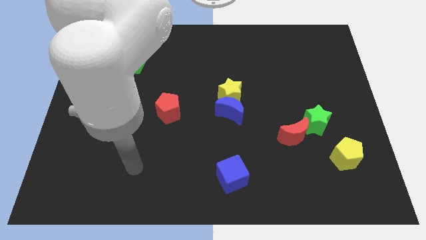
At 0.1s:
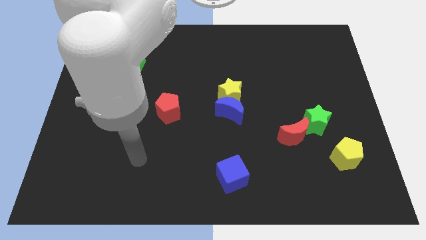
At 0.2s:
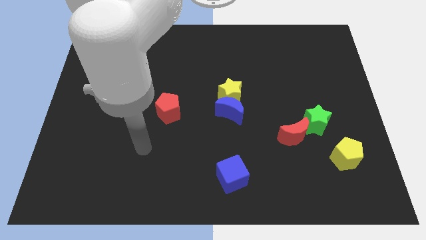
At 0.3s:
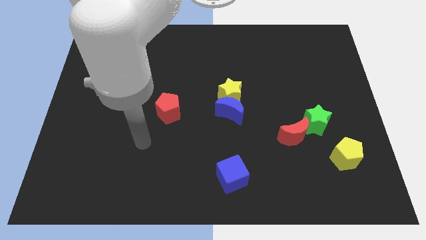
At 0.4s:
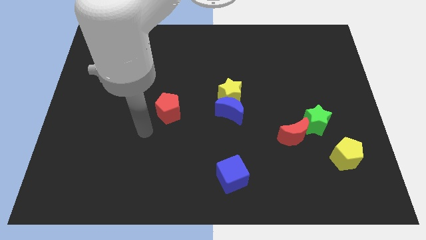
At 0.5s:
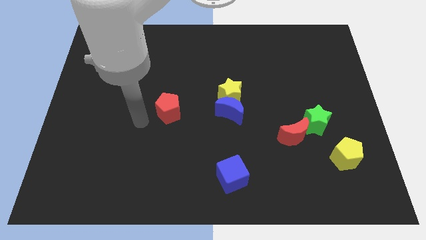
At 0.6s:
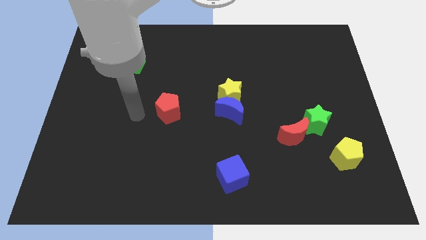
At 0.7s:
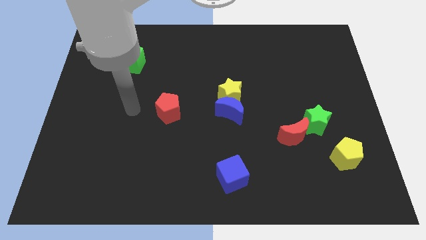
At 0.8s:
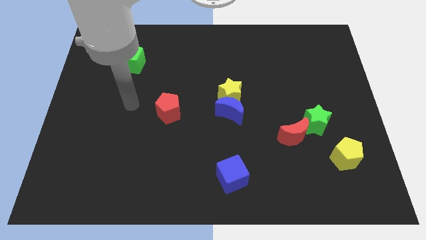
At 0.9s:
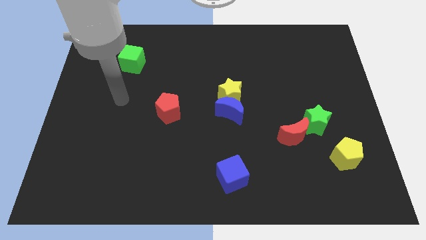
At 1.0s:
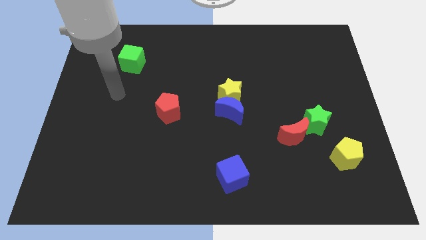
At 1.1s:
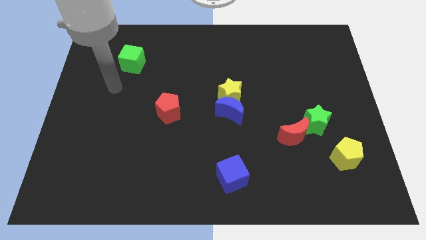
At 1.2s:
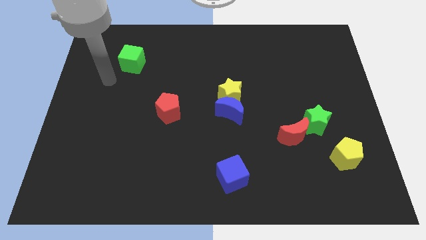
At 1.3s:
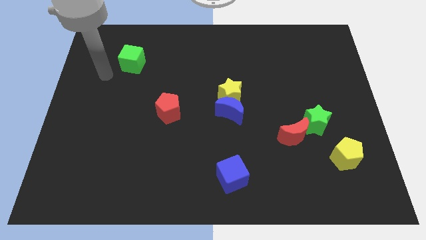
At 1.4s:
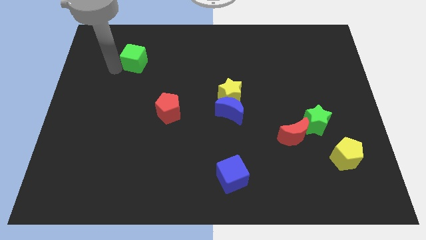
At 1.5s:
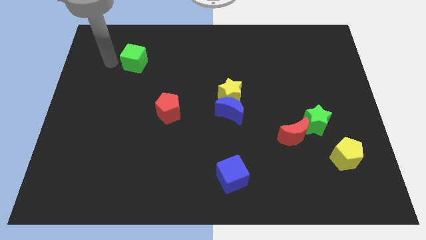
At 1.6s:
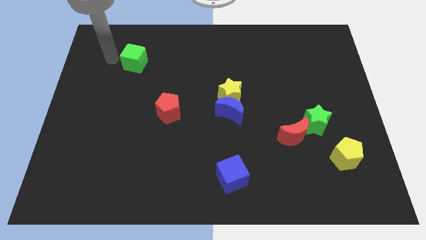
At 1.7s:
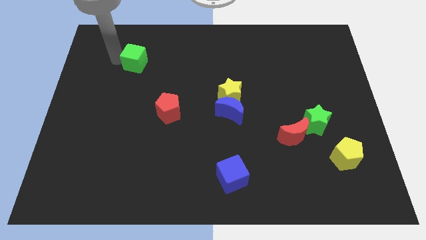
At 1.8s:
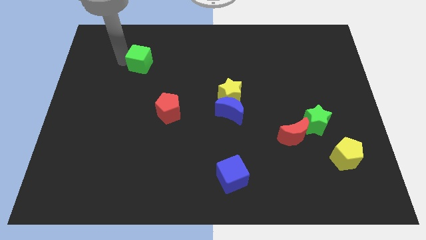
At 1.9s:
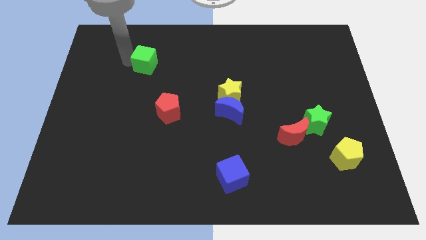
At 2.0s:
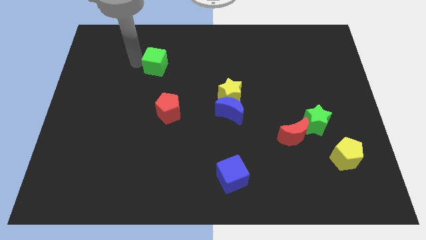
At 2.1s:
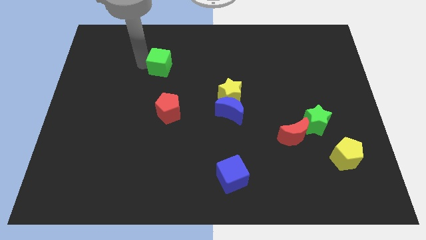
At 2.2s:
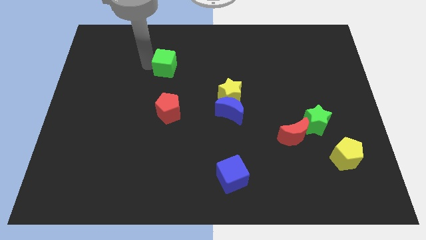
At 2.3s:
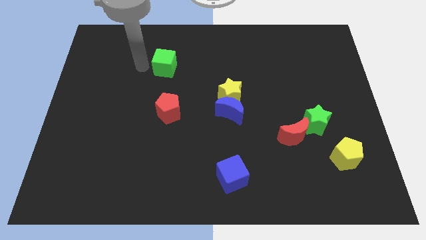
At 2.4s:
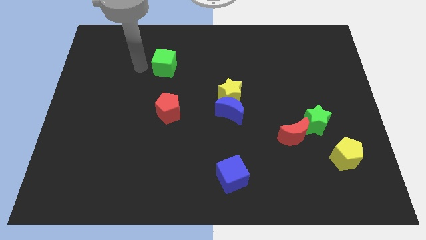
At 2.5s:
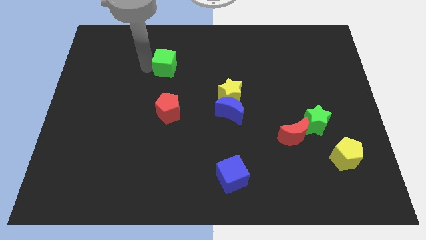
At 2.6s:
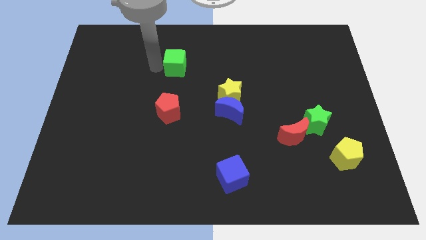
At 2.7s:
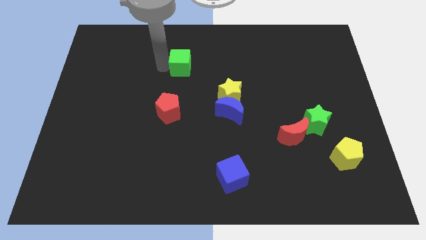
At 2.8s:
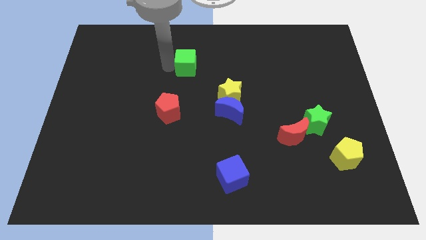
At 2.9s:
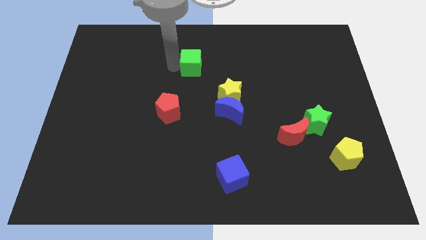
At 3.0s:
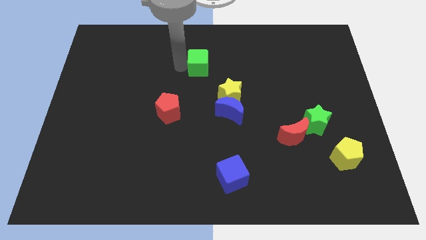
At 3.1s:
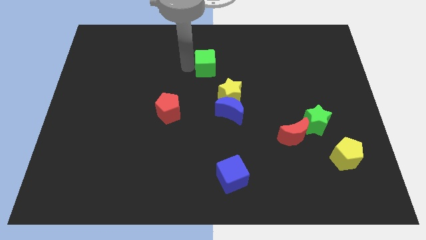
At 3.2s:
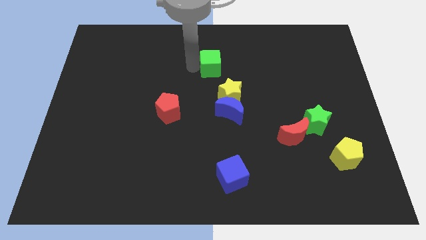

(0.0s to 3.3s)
slide the green cube right

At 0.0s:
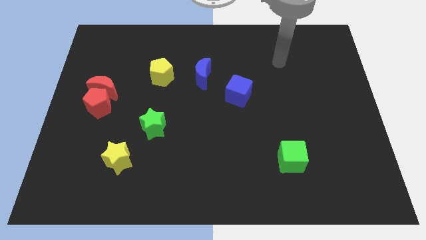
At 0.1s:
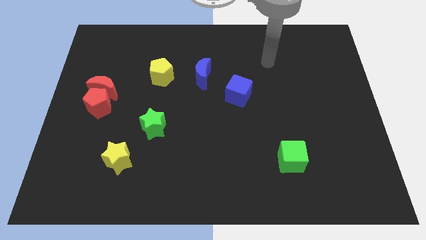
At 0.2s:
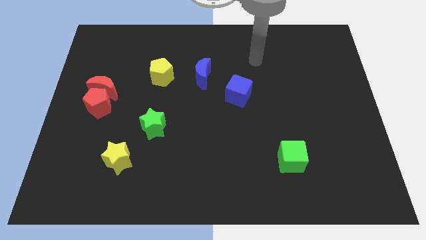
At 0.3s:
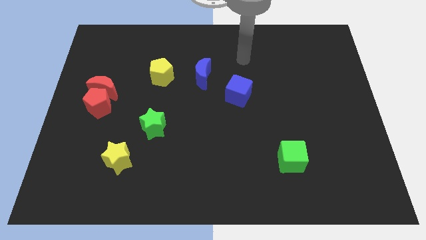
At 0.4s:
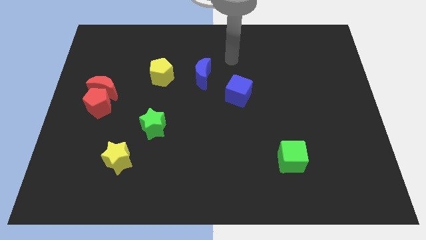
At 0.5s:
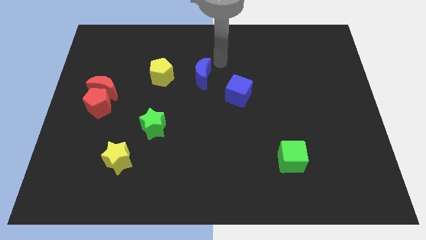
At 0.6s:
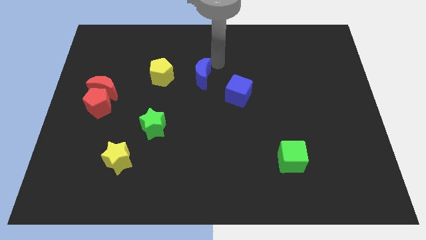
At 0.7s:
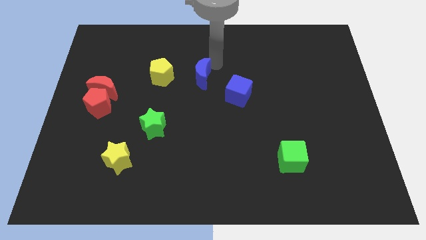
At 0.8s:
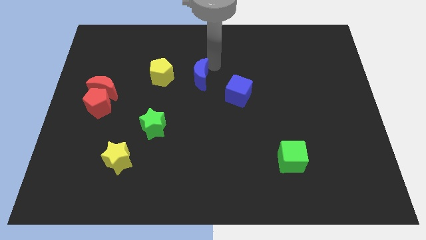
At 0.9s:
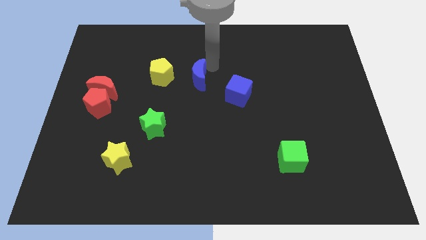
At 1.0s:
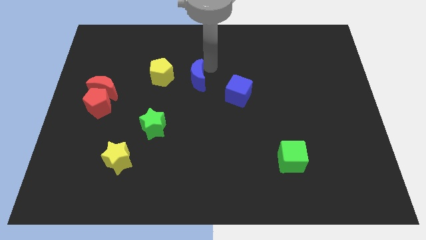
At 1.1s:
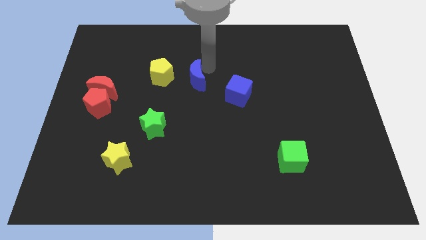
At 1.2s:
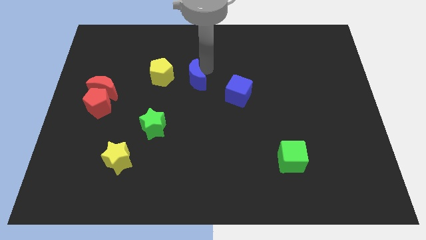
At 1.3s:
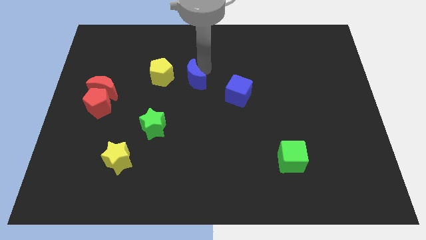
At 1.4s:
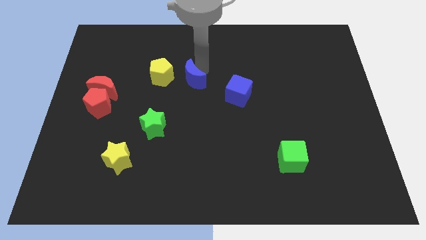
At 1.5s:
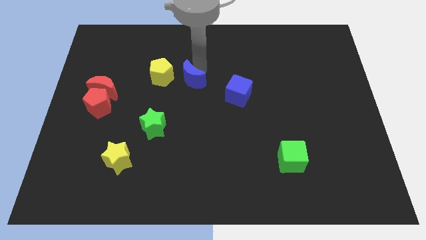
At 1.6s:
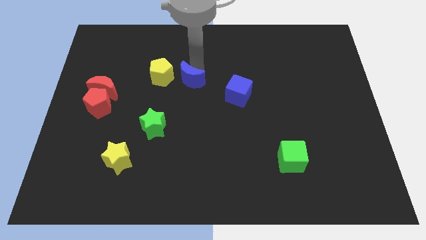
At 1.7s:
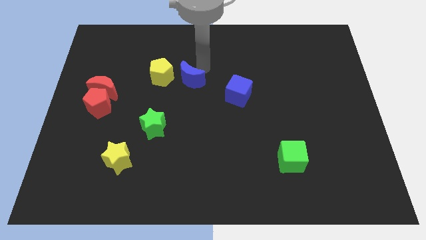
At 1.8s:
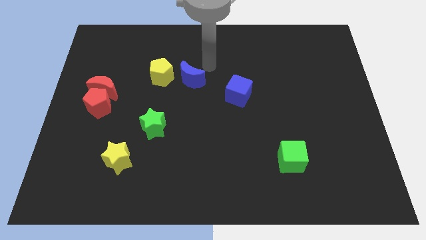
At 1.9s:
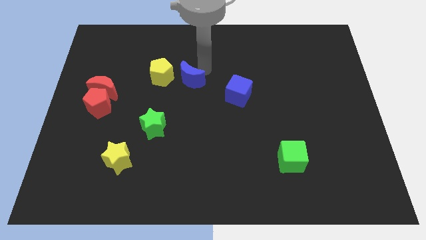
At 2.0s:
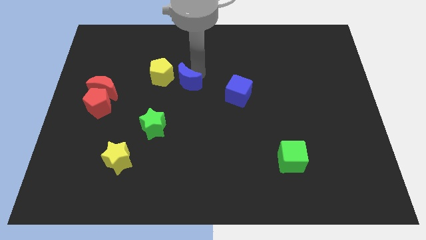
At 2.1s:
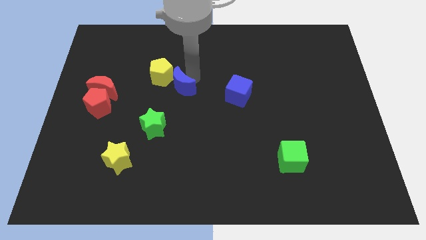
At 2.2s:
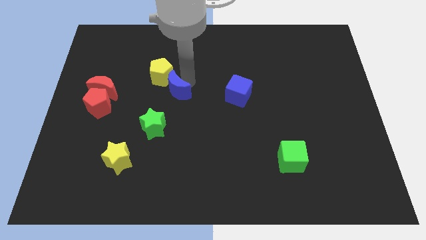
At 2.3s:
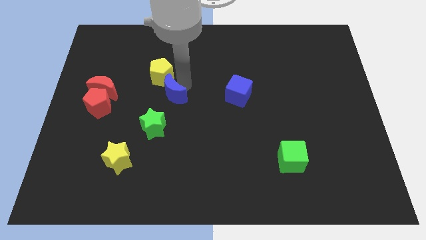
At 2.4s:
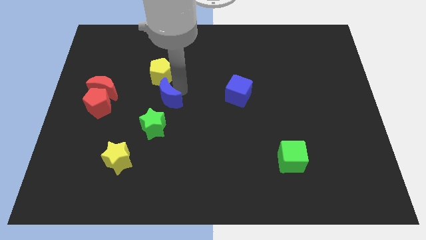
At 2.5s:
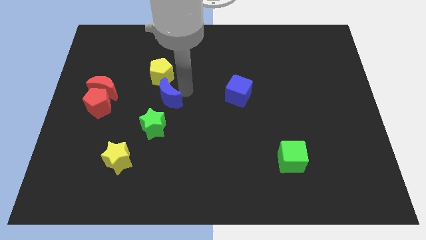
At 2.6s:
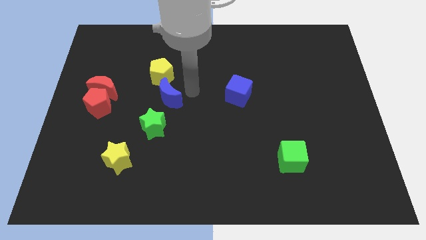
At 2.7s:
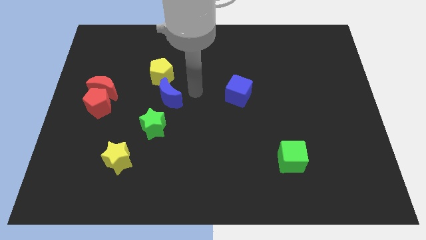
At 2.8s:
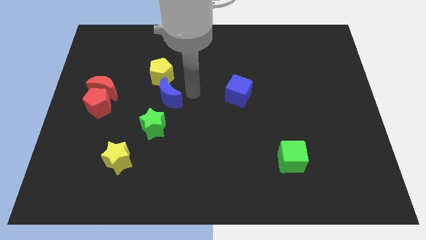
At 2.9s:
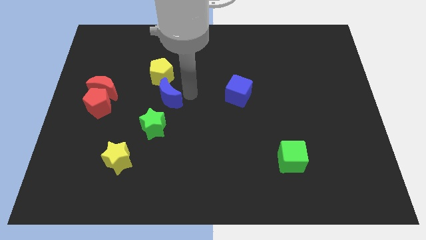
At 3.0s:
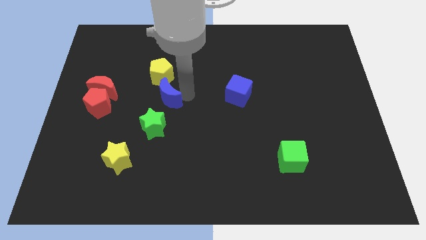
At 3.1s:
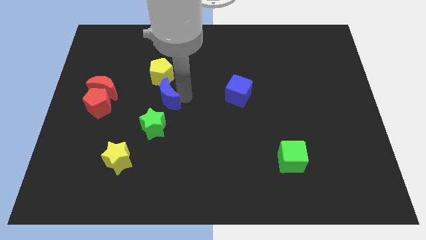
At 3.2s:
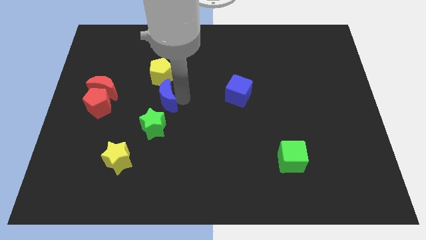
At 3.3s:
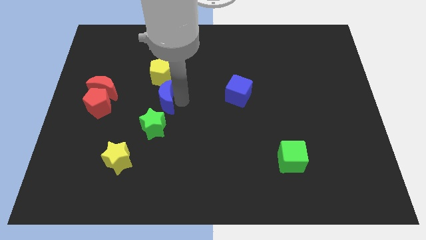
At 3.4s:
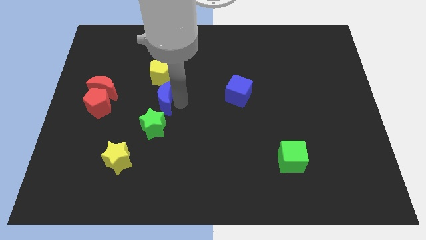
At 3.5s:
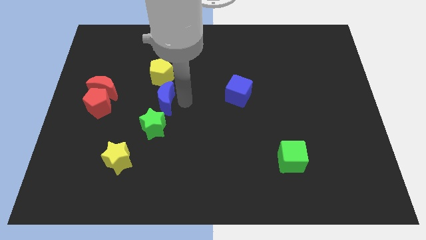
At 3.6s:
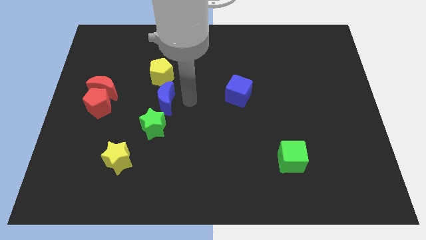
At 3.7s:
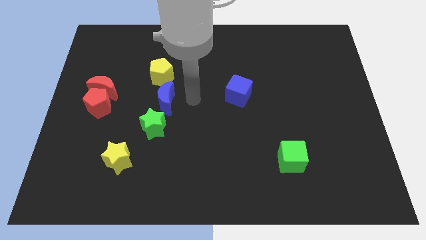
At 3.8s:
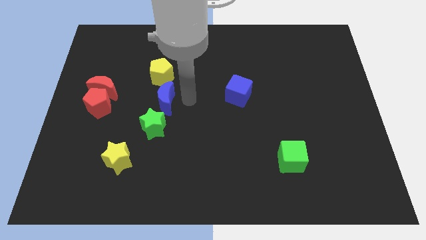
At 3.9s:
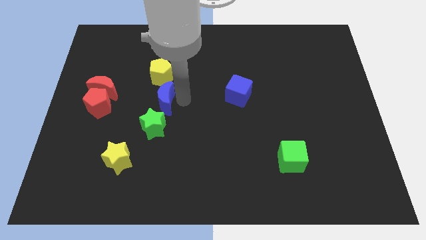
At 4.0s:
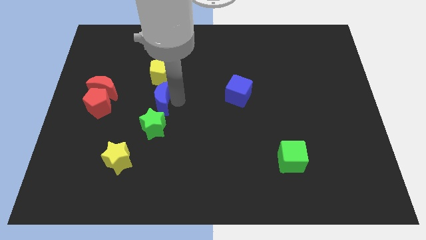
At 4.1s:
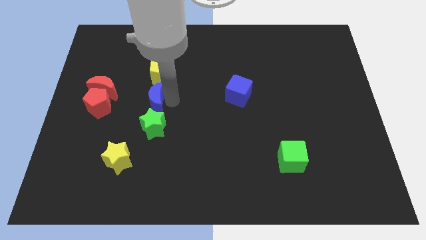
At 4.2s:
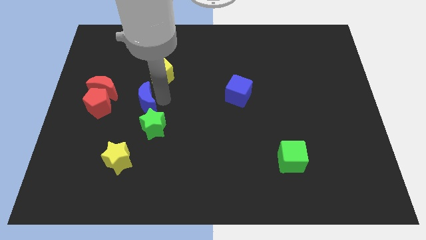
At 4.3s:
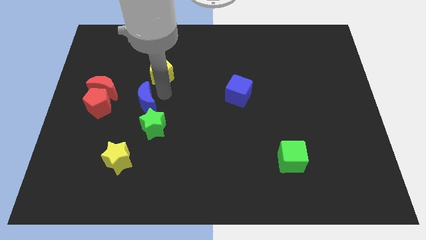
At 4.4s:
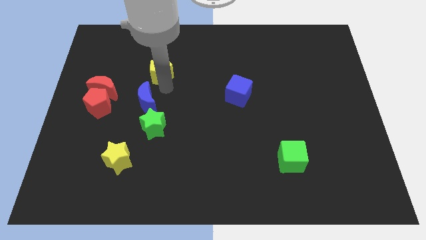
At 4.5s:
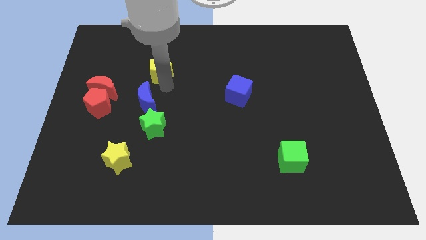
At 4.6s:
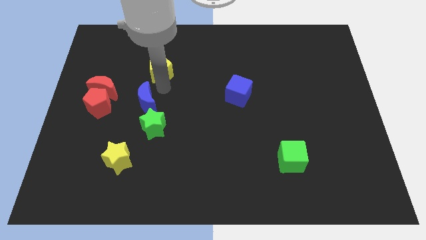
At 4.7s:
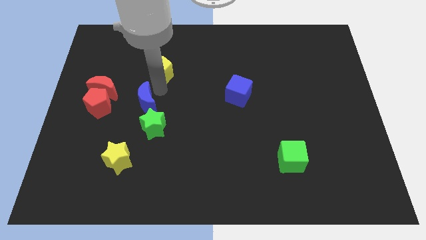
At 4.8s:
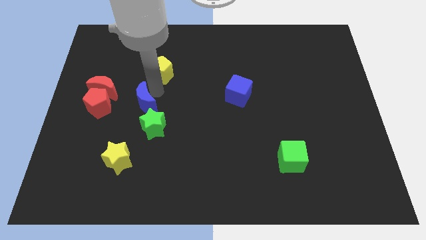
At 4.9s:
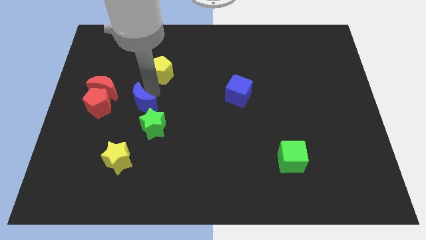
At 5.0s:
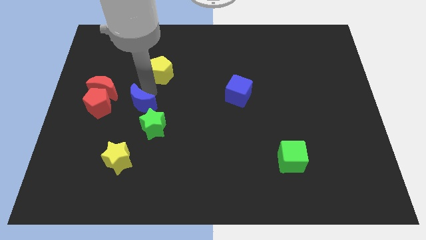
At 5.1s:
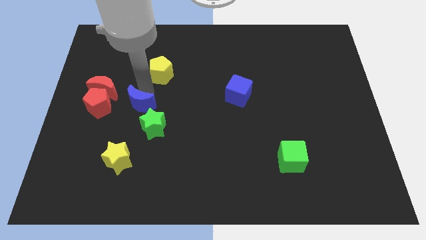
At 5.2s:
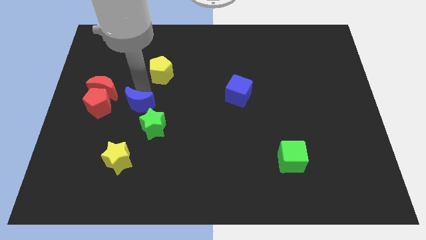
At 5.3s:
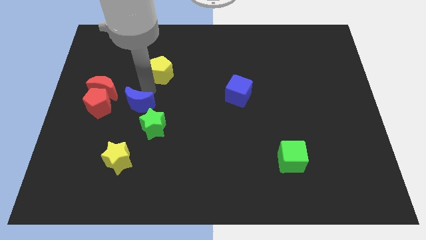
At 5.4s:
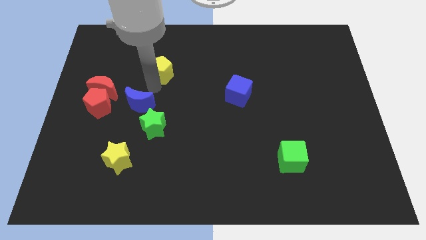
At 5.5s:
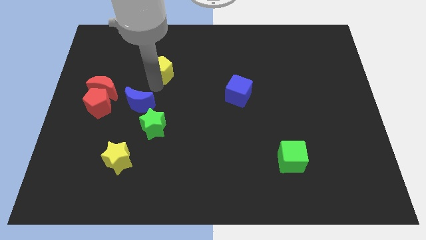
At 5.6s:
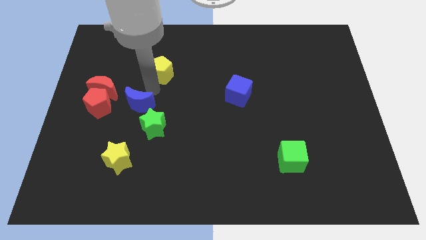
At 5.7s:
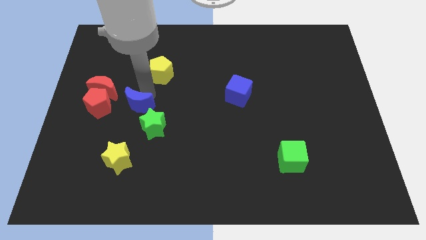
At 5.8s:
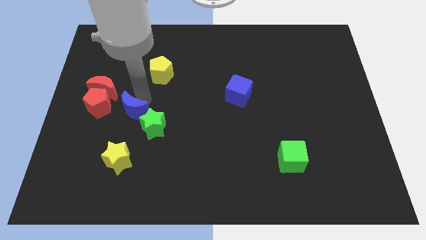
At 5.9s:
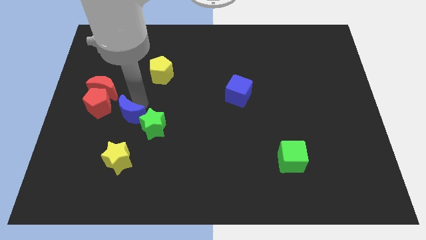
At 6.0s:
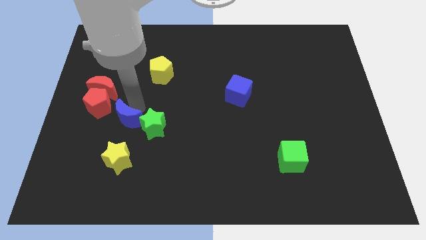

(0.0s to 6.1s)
slide the blue moon down and to the left diagonally
